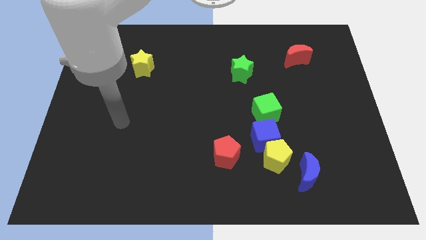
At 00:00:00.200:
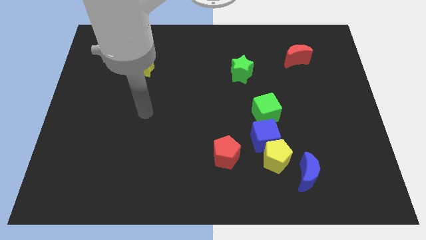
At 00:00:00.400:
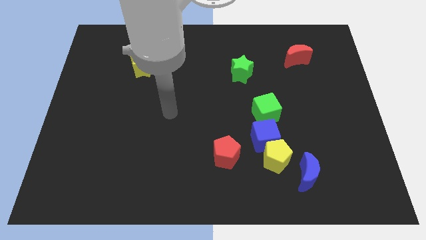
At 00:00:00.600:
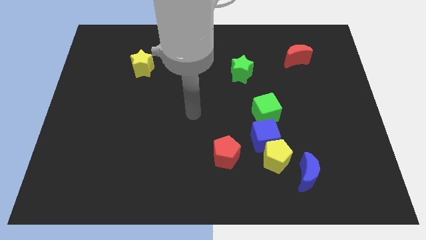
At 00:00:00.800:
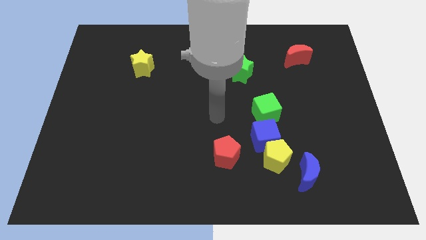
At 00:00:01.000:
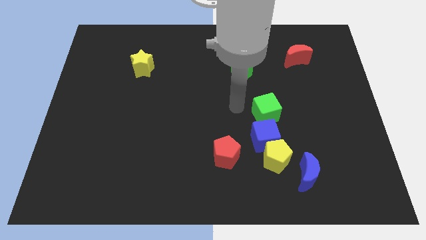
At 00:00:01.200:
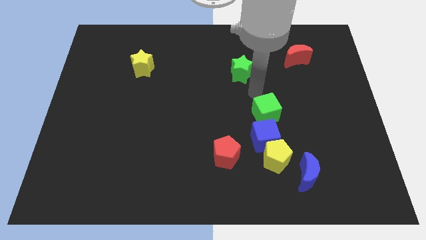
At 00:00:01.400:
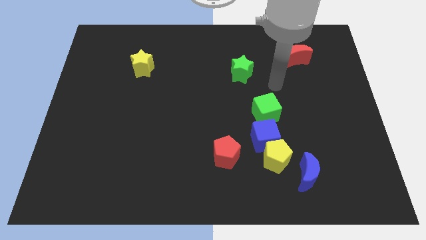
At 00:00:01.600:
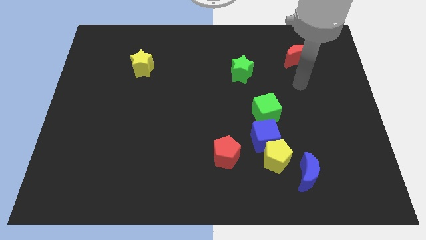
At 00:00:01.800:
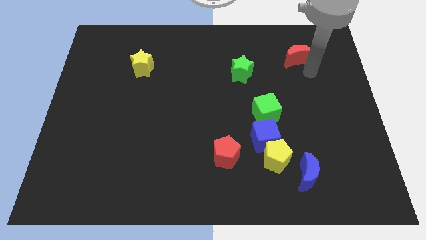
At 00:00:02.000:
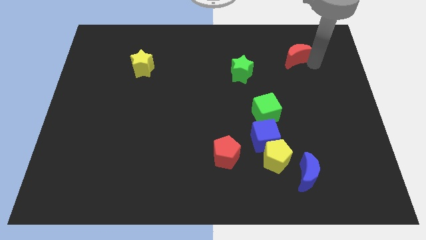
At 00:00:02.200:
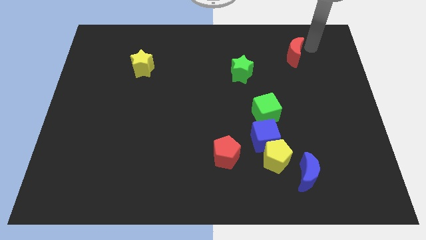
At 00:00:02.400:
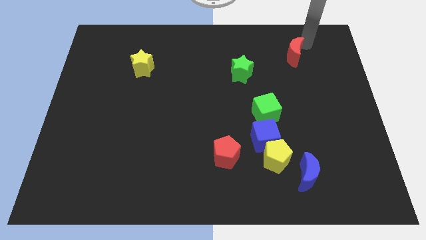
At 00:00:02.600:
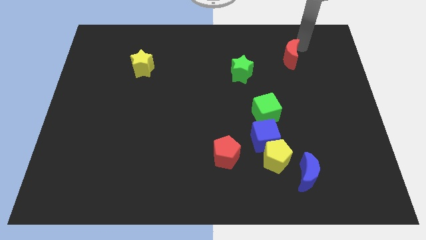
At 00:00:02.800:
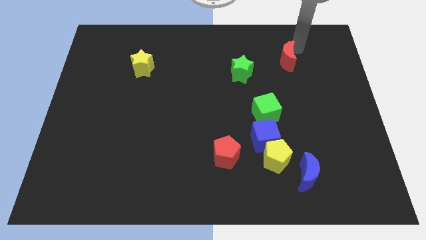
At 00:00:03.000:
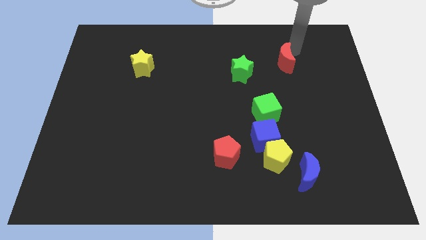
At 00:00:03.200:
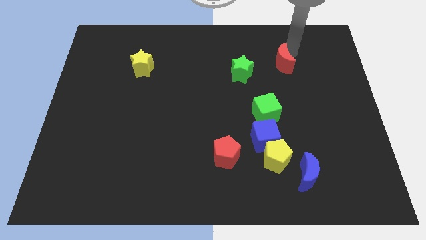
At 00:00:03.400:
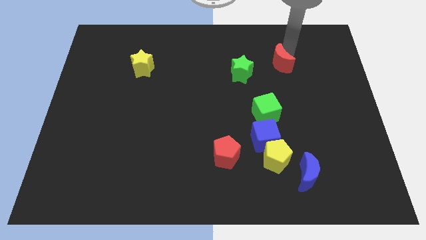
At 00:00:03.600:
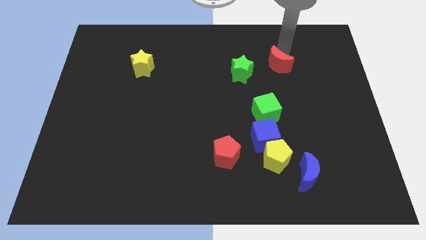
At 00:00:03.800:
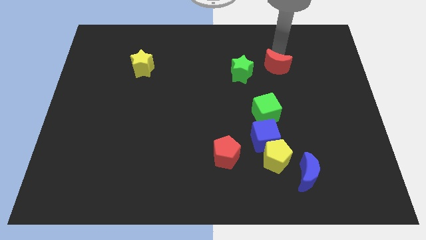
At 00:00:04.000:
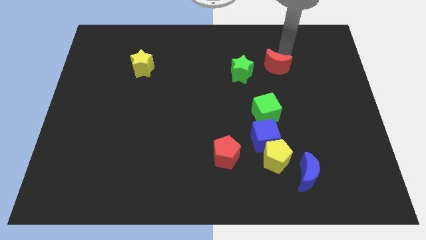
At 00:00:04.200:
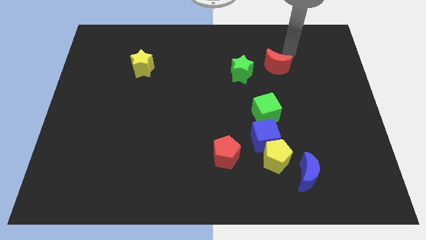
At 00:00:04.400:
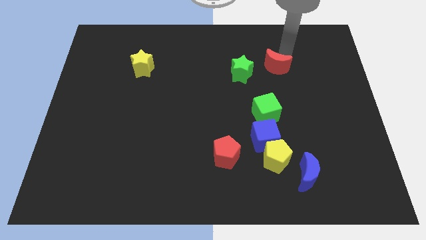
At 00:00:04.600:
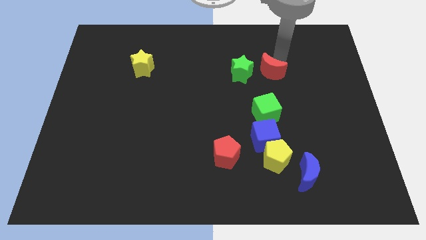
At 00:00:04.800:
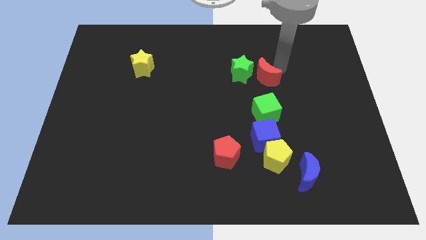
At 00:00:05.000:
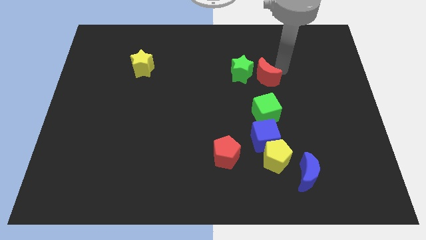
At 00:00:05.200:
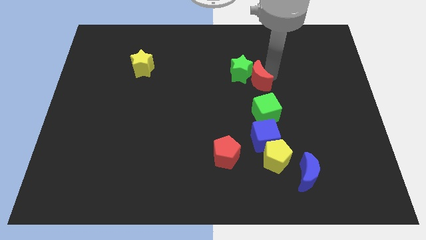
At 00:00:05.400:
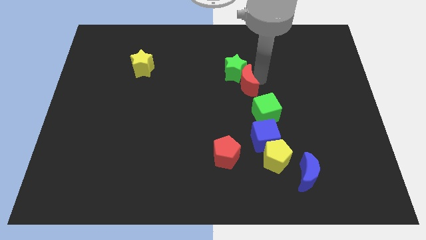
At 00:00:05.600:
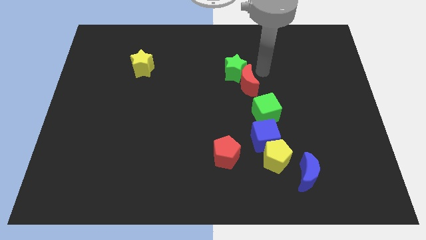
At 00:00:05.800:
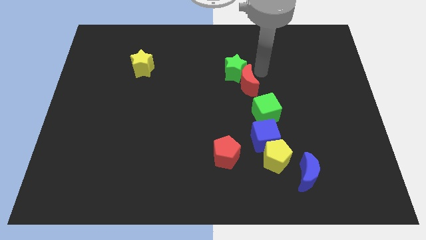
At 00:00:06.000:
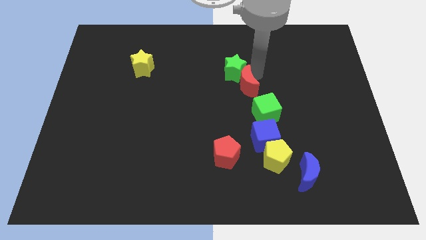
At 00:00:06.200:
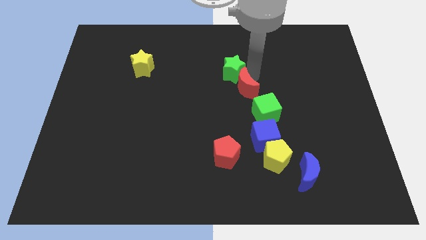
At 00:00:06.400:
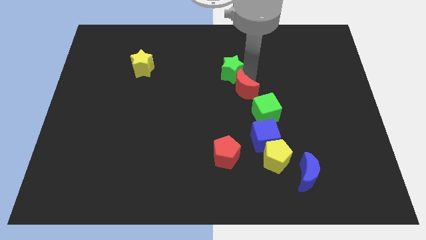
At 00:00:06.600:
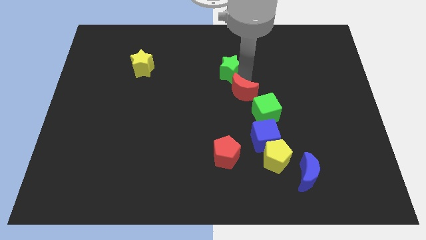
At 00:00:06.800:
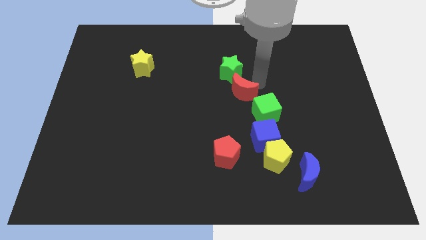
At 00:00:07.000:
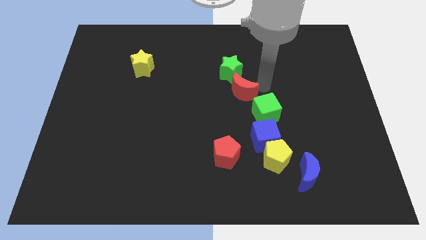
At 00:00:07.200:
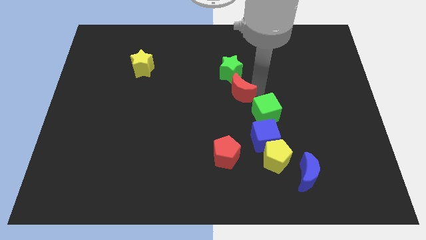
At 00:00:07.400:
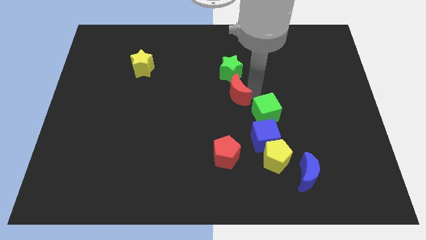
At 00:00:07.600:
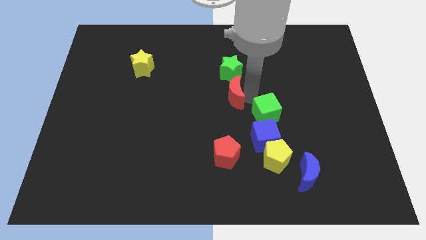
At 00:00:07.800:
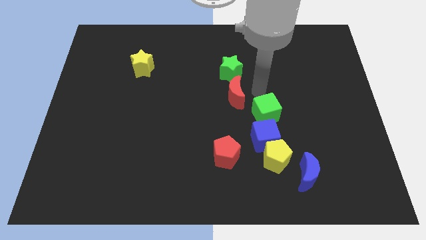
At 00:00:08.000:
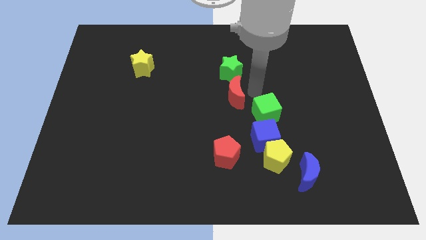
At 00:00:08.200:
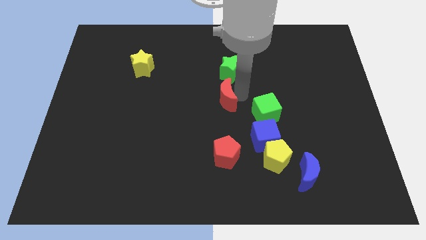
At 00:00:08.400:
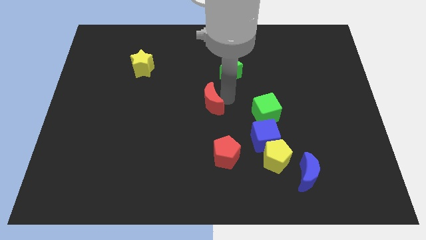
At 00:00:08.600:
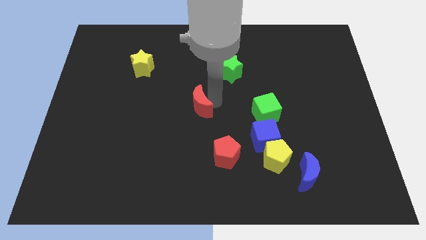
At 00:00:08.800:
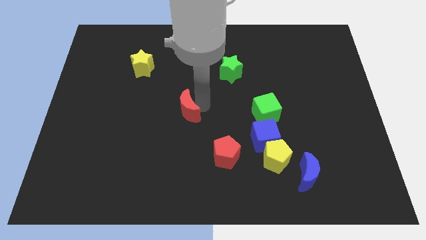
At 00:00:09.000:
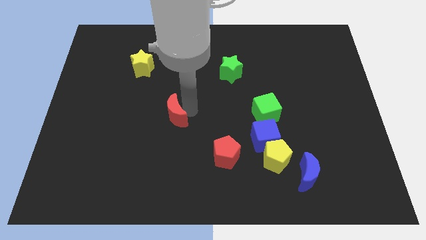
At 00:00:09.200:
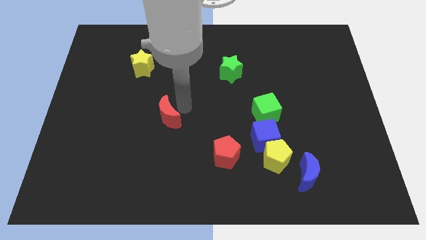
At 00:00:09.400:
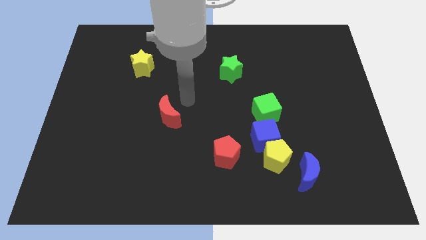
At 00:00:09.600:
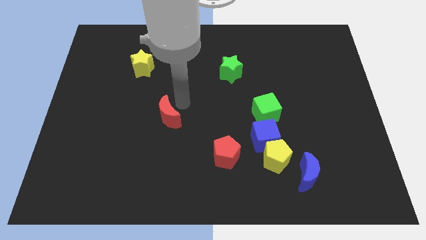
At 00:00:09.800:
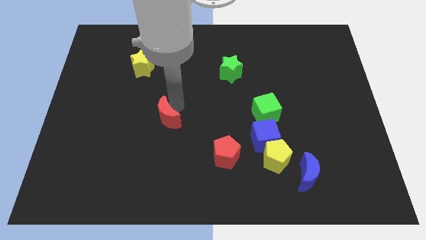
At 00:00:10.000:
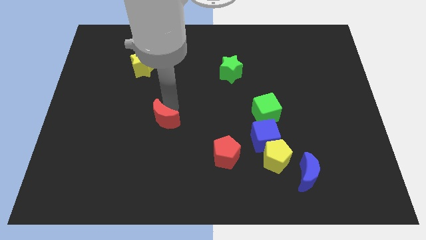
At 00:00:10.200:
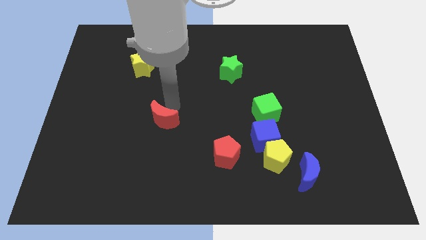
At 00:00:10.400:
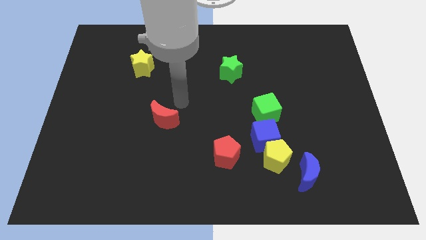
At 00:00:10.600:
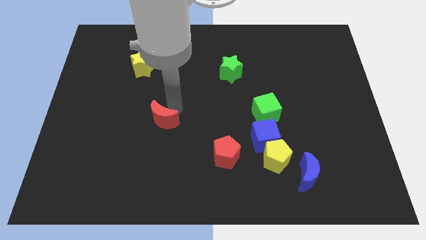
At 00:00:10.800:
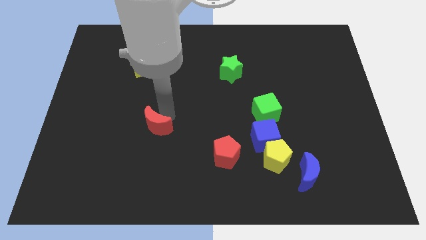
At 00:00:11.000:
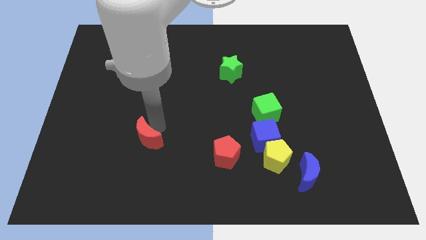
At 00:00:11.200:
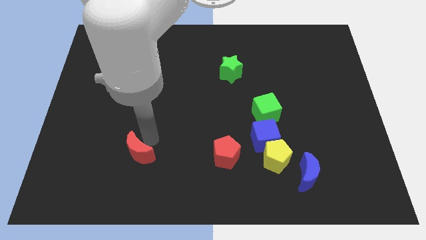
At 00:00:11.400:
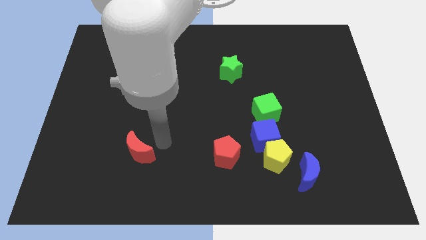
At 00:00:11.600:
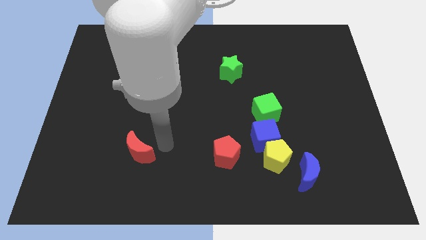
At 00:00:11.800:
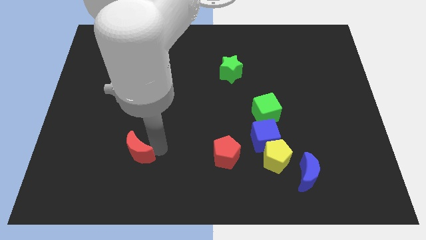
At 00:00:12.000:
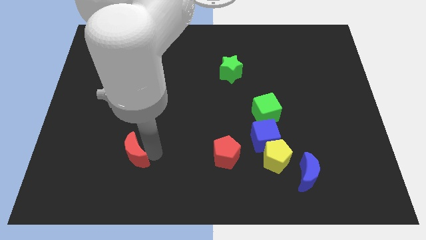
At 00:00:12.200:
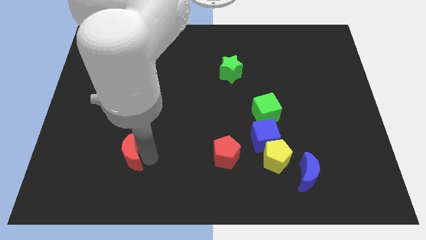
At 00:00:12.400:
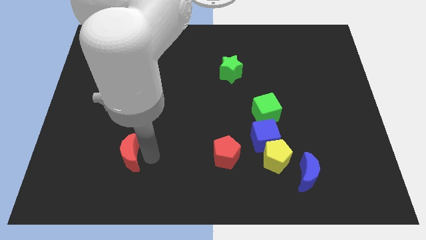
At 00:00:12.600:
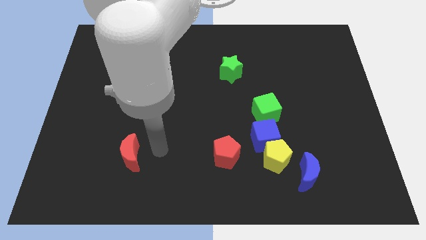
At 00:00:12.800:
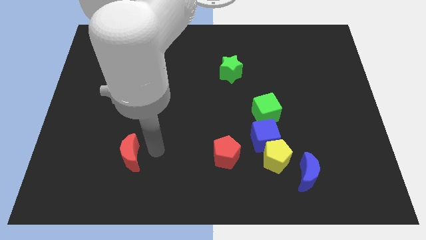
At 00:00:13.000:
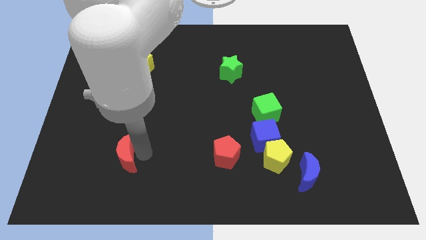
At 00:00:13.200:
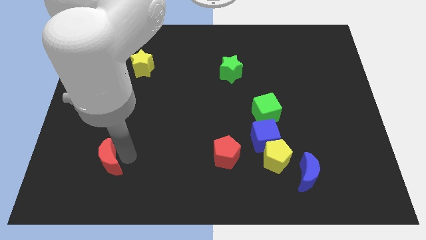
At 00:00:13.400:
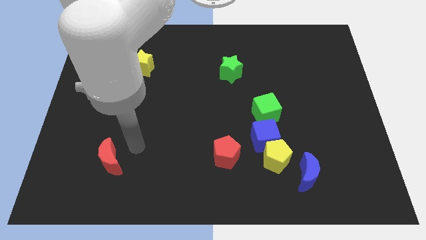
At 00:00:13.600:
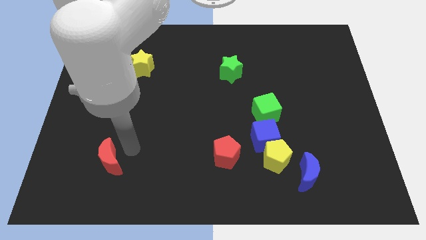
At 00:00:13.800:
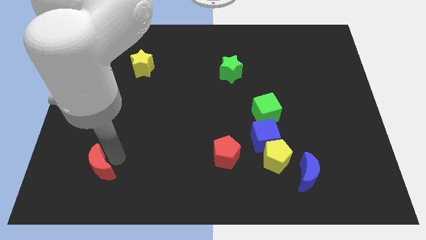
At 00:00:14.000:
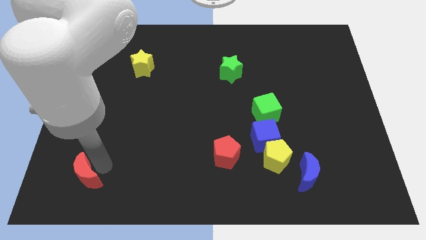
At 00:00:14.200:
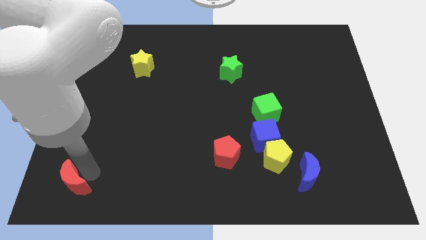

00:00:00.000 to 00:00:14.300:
slide the red moon to the bottom left corner

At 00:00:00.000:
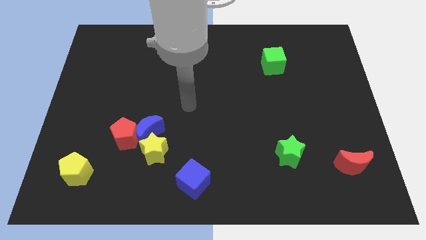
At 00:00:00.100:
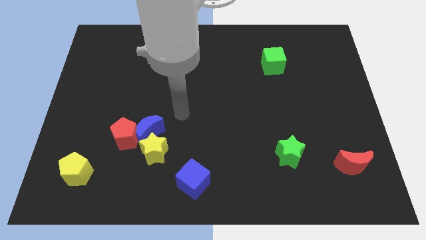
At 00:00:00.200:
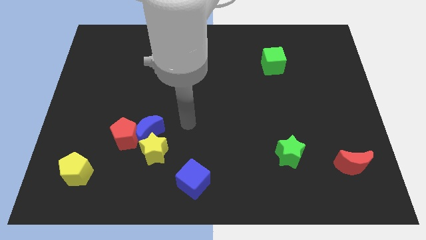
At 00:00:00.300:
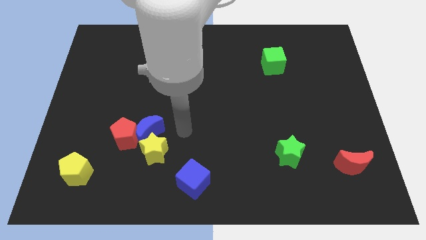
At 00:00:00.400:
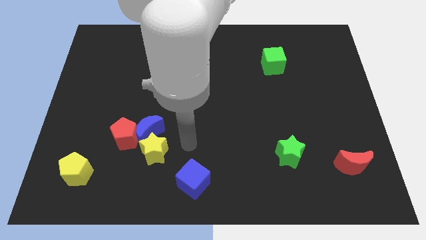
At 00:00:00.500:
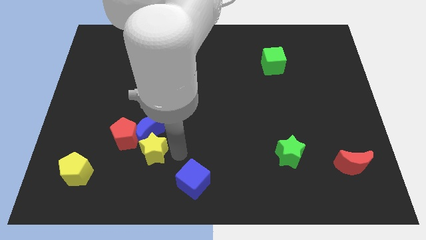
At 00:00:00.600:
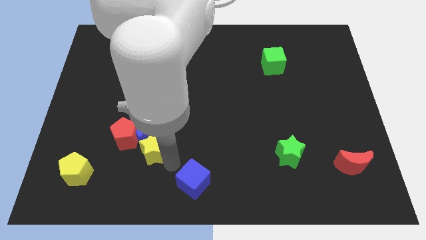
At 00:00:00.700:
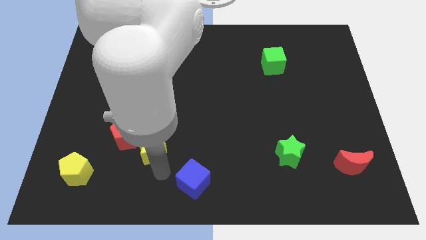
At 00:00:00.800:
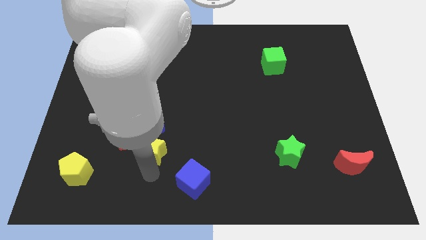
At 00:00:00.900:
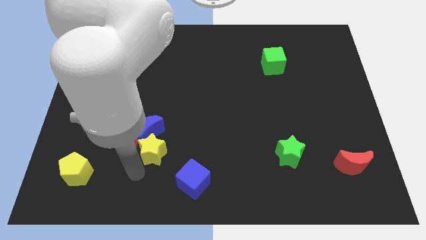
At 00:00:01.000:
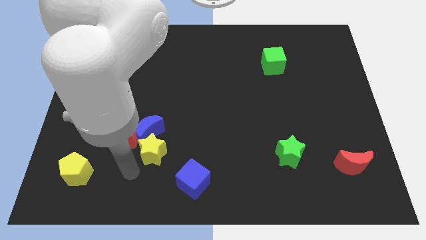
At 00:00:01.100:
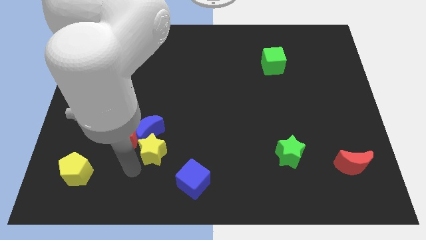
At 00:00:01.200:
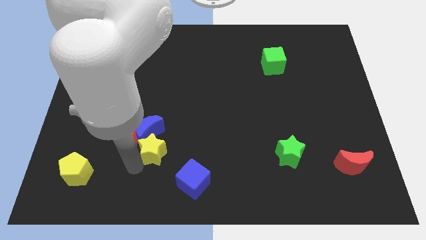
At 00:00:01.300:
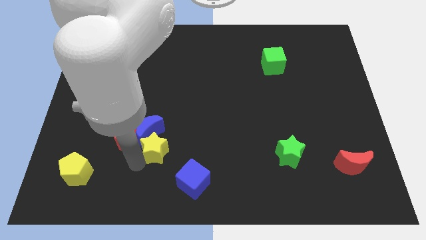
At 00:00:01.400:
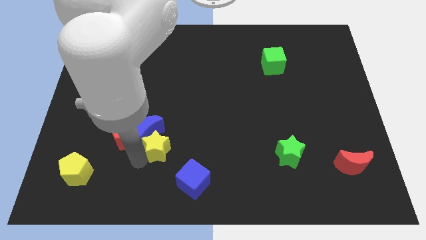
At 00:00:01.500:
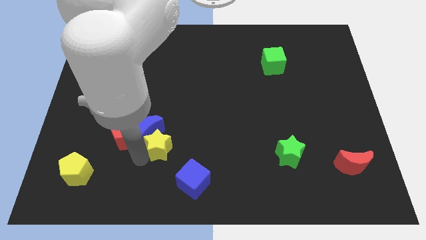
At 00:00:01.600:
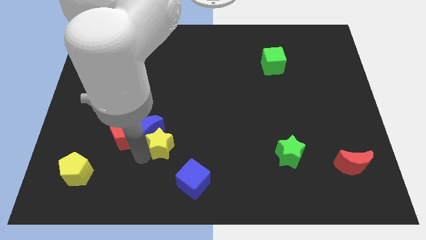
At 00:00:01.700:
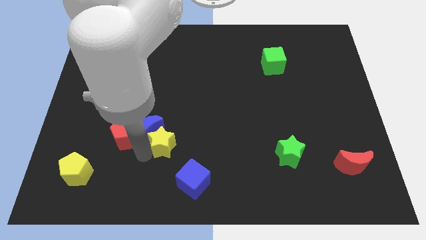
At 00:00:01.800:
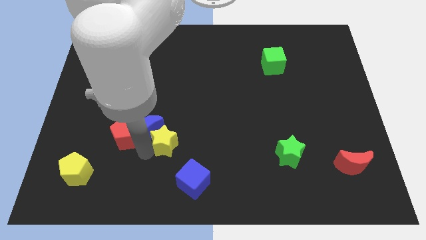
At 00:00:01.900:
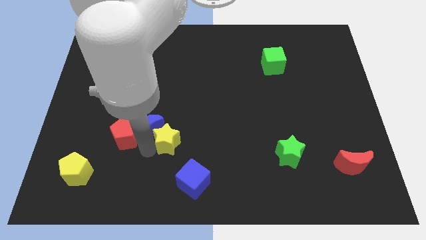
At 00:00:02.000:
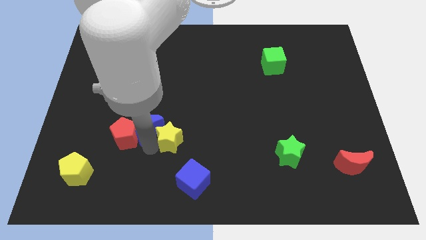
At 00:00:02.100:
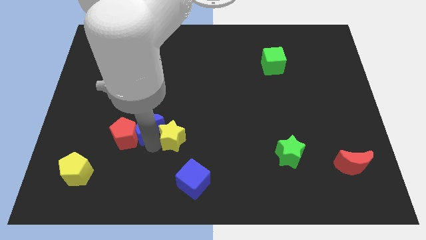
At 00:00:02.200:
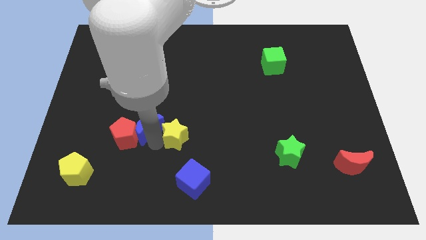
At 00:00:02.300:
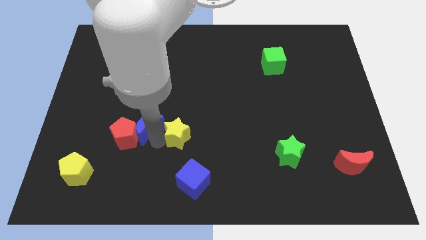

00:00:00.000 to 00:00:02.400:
push the yellow star to the center
